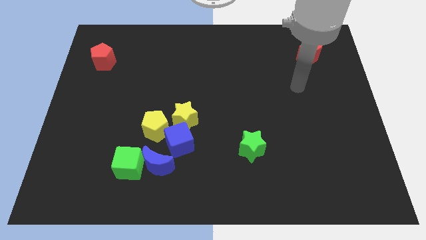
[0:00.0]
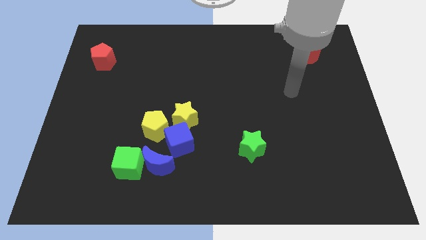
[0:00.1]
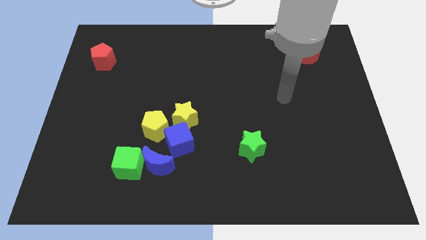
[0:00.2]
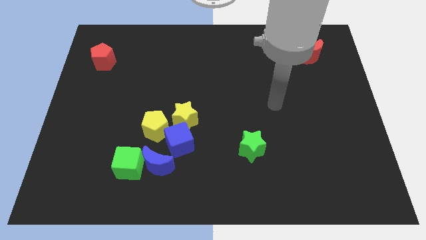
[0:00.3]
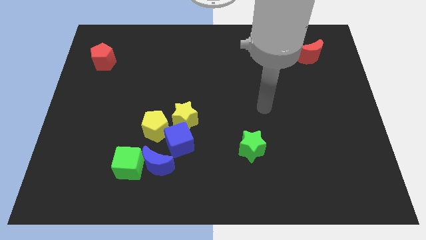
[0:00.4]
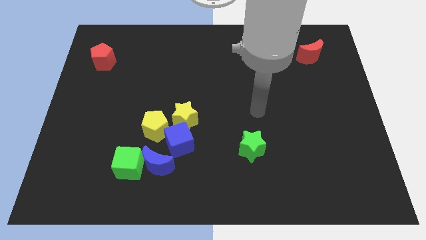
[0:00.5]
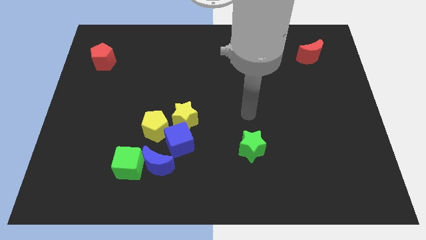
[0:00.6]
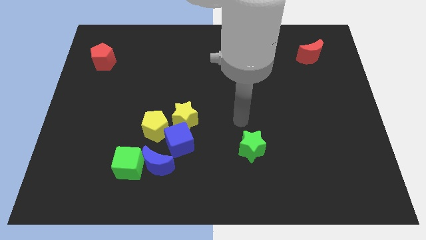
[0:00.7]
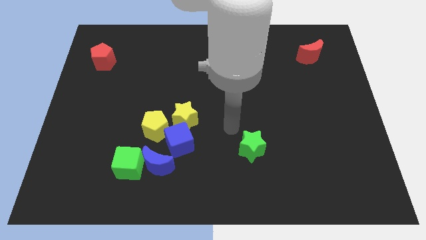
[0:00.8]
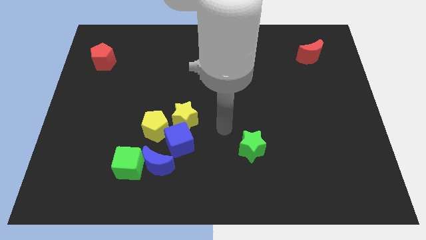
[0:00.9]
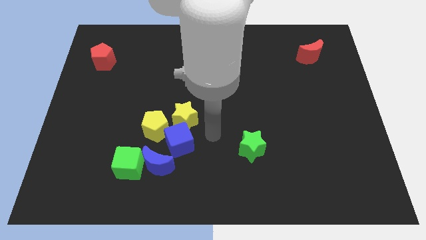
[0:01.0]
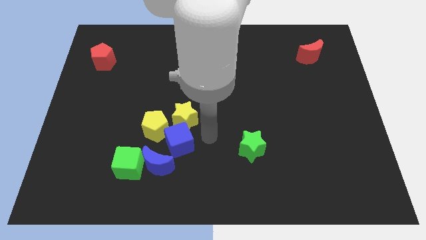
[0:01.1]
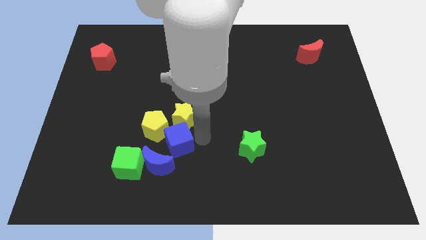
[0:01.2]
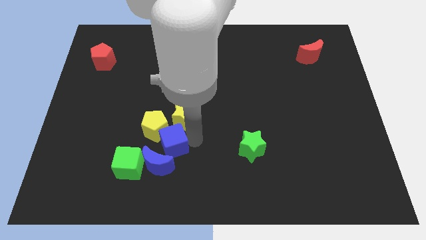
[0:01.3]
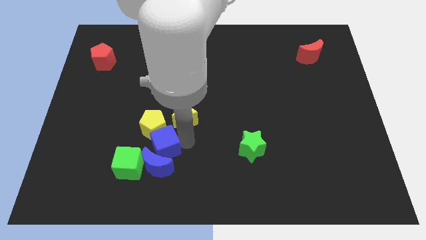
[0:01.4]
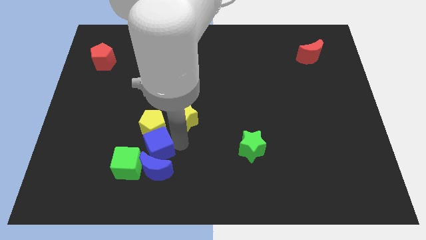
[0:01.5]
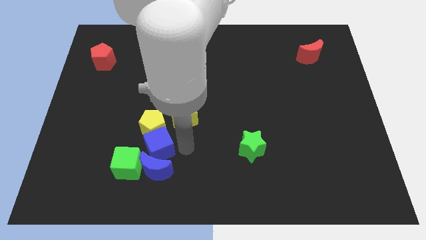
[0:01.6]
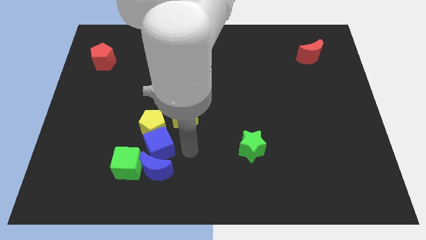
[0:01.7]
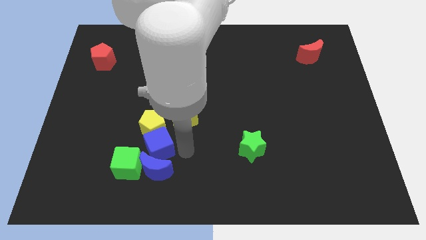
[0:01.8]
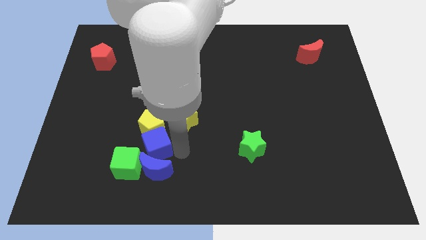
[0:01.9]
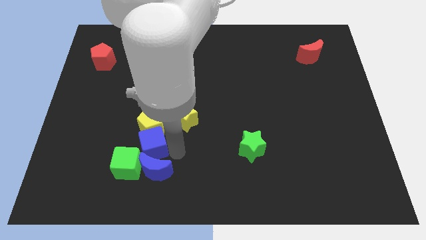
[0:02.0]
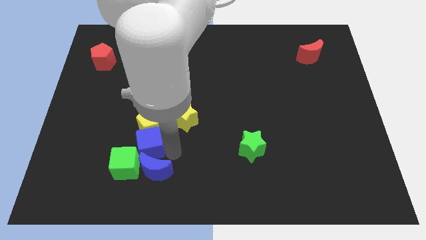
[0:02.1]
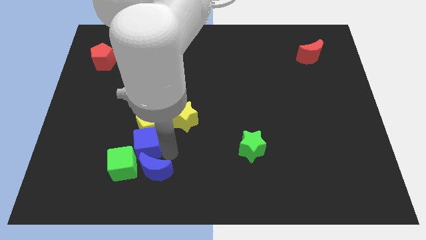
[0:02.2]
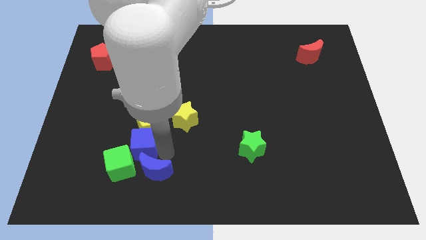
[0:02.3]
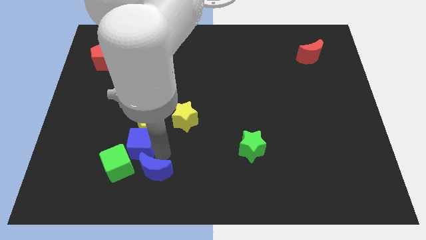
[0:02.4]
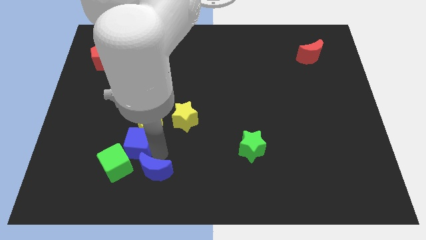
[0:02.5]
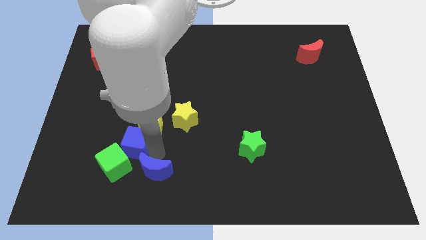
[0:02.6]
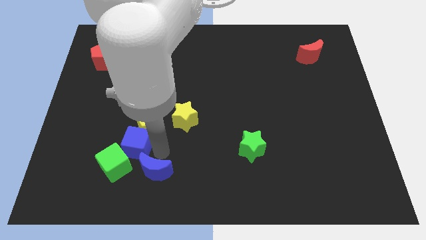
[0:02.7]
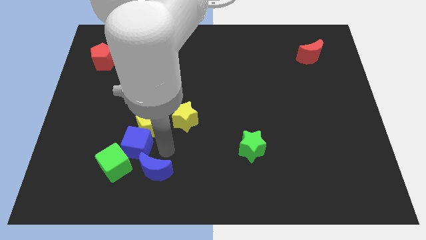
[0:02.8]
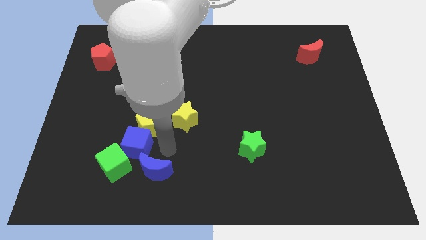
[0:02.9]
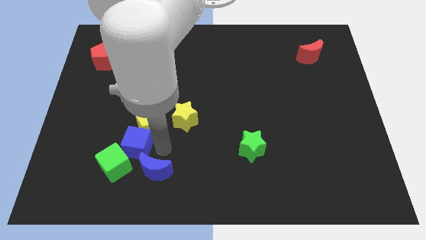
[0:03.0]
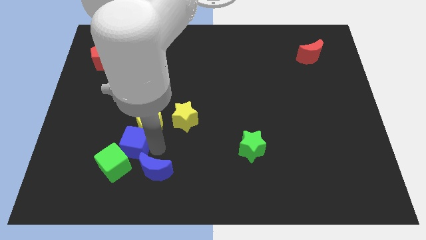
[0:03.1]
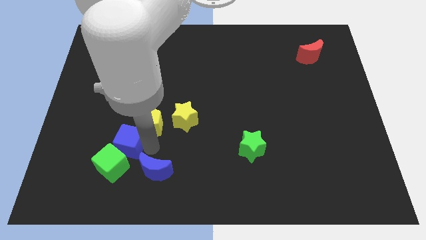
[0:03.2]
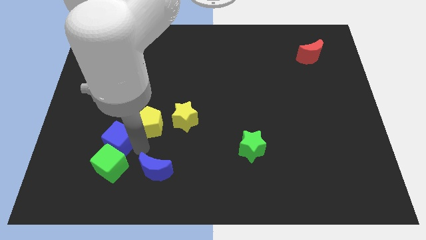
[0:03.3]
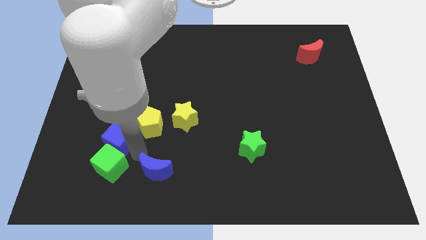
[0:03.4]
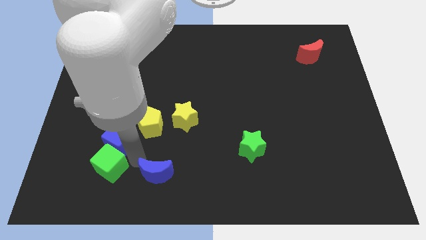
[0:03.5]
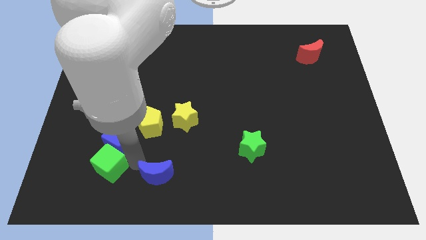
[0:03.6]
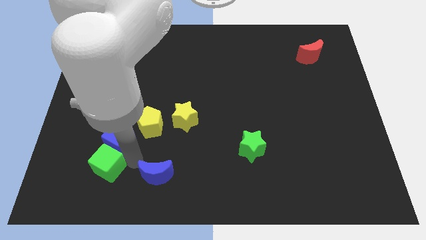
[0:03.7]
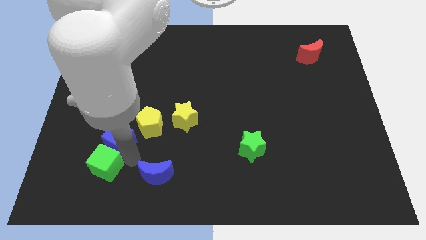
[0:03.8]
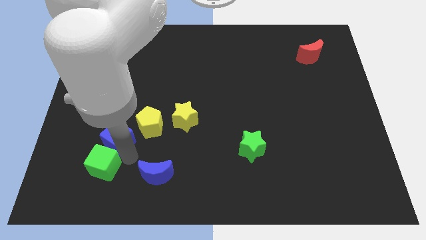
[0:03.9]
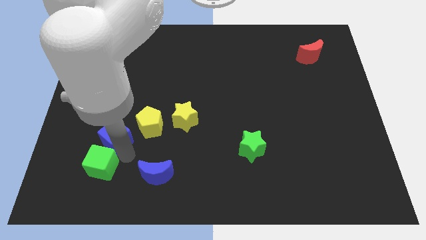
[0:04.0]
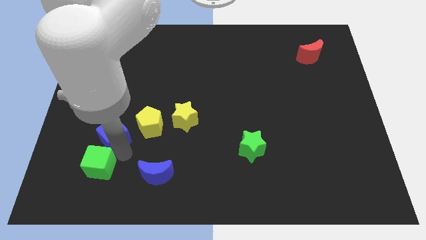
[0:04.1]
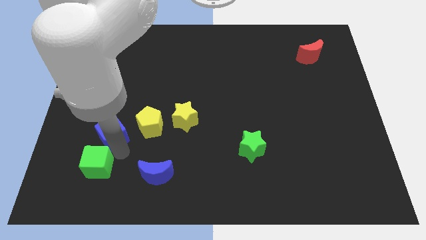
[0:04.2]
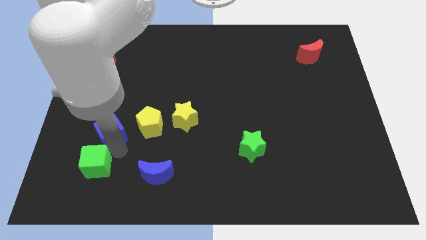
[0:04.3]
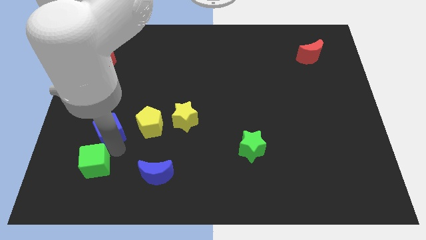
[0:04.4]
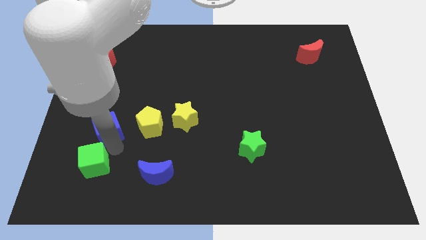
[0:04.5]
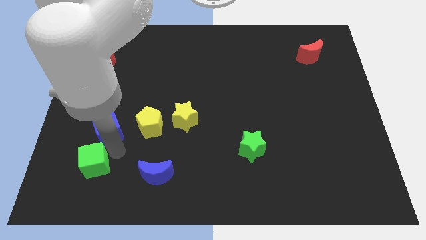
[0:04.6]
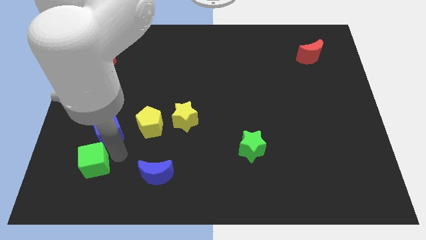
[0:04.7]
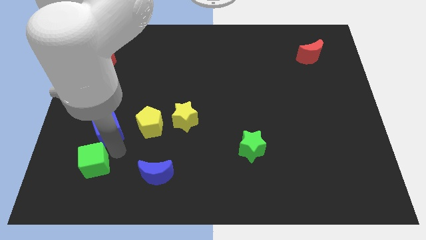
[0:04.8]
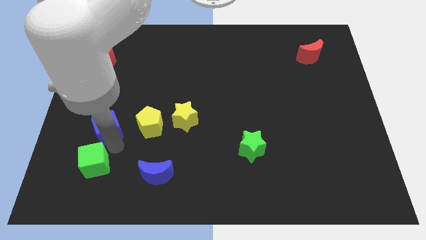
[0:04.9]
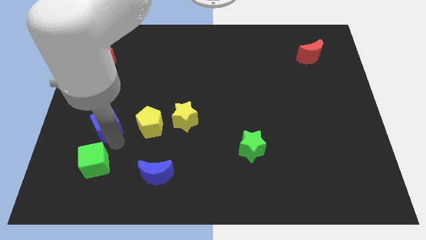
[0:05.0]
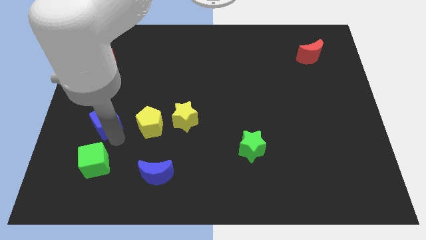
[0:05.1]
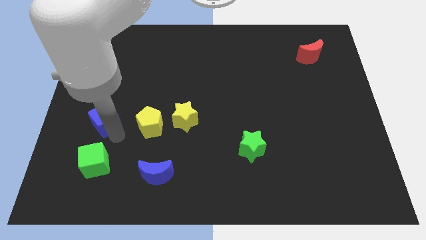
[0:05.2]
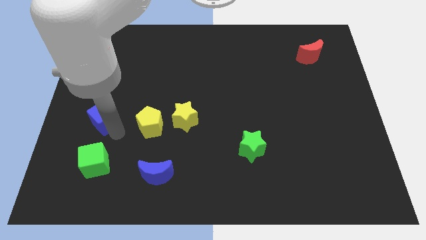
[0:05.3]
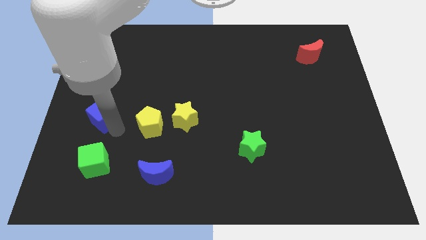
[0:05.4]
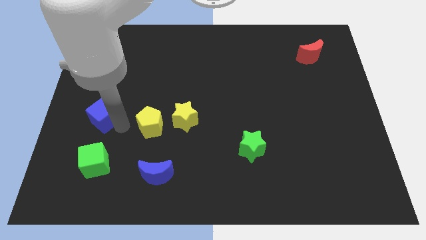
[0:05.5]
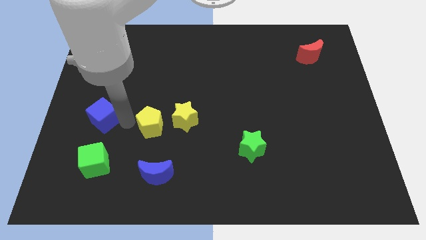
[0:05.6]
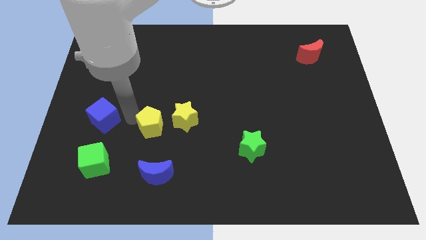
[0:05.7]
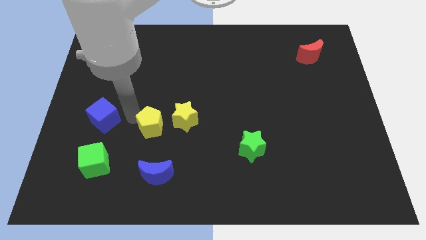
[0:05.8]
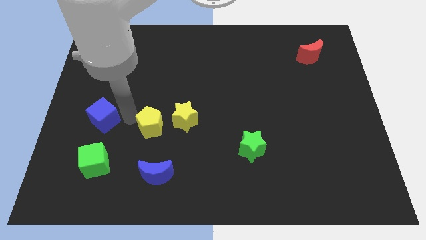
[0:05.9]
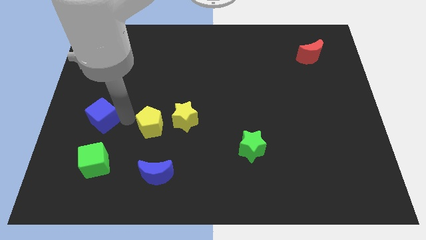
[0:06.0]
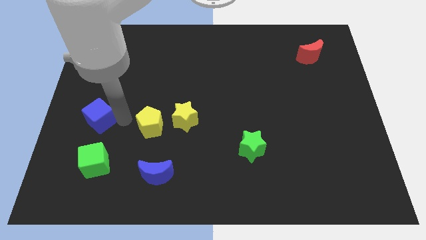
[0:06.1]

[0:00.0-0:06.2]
put the blue cube to the center left

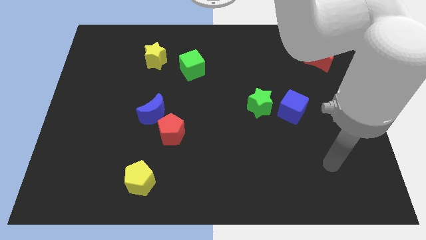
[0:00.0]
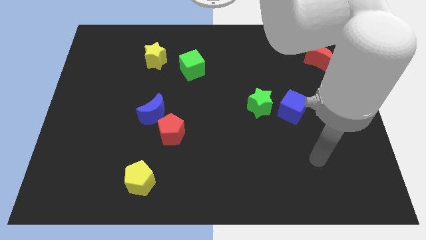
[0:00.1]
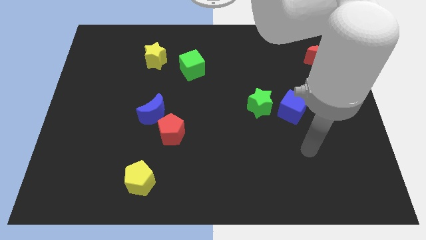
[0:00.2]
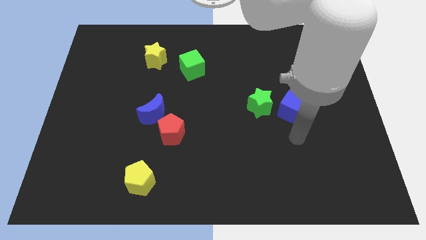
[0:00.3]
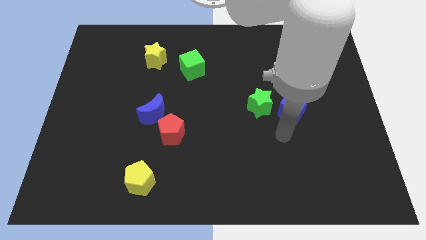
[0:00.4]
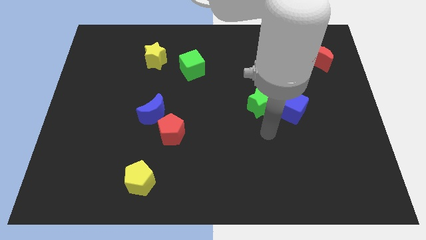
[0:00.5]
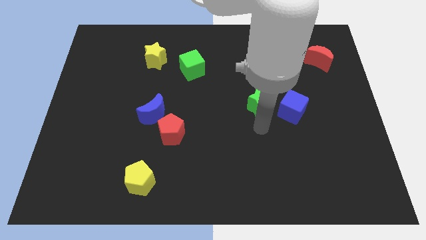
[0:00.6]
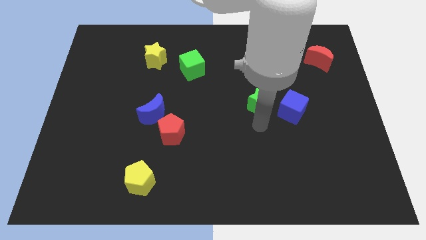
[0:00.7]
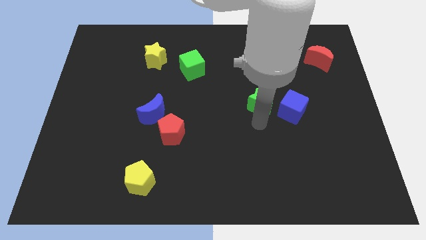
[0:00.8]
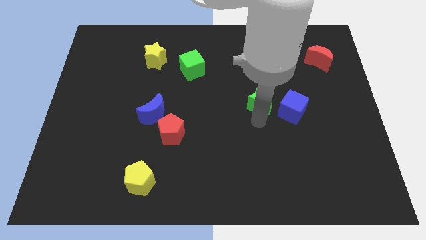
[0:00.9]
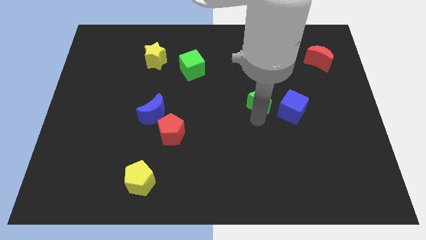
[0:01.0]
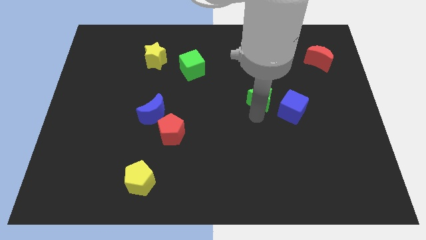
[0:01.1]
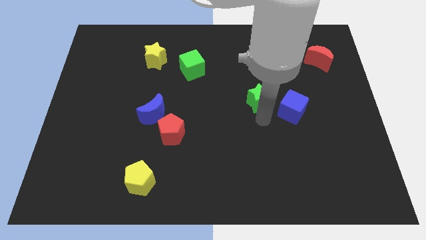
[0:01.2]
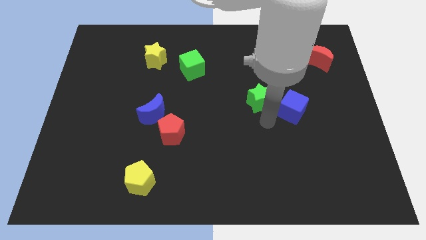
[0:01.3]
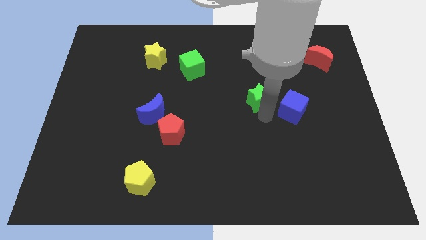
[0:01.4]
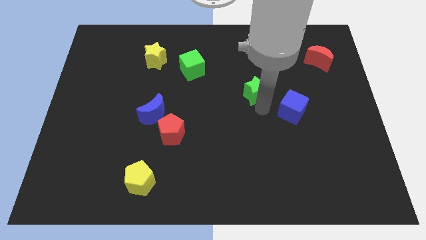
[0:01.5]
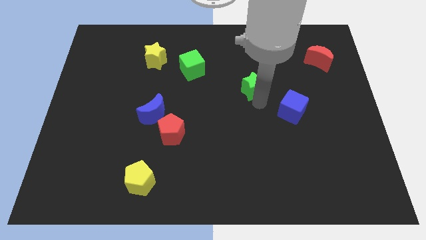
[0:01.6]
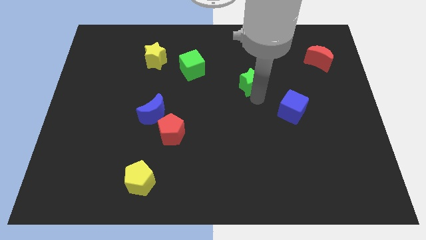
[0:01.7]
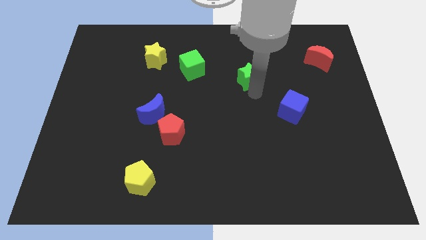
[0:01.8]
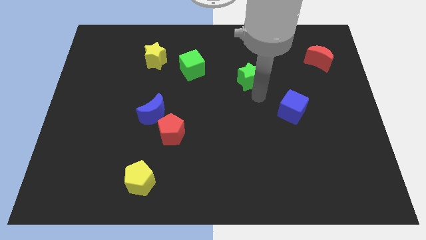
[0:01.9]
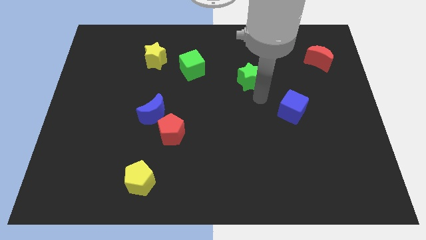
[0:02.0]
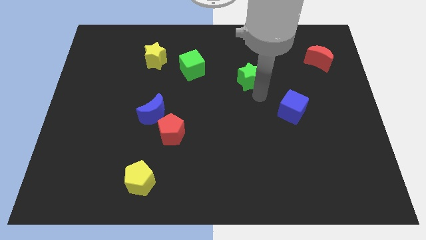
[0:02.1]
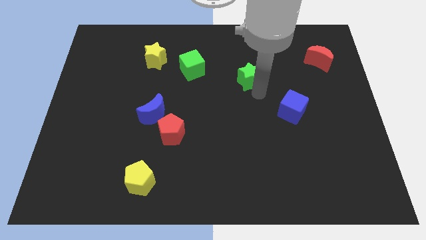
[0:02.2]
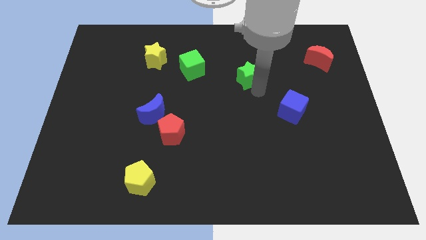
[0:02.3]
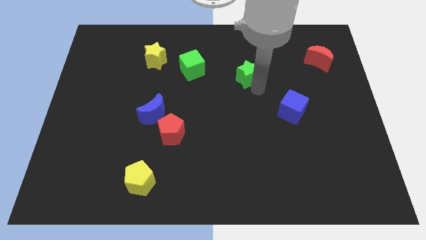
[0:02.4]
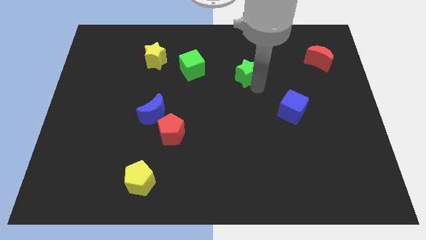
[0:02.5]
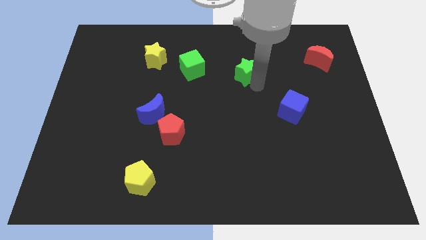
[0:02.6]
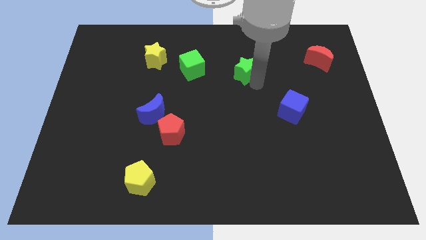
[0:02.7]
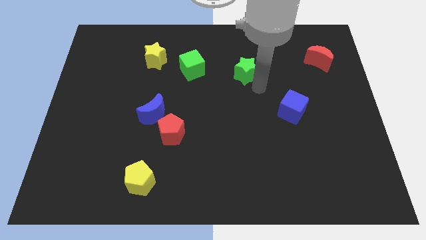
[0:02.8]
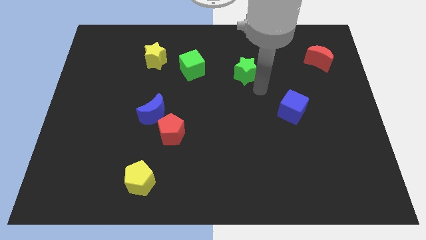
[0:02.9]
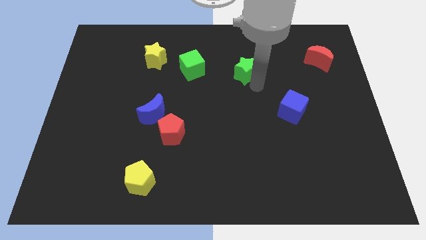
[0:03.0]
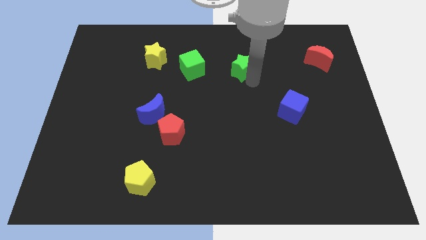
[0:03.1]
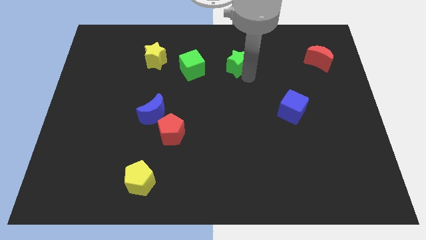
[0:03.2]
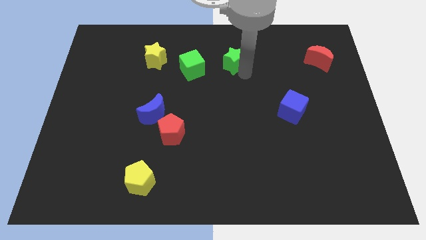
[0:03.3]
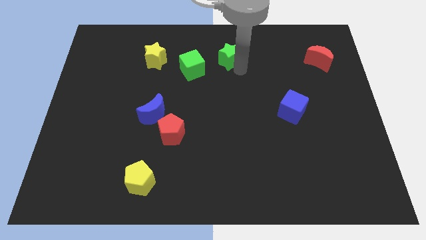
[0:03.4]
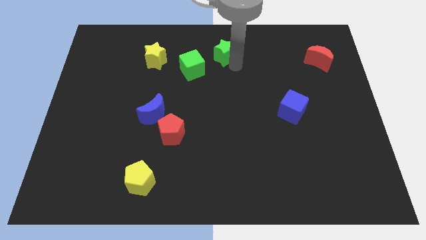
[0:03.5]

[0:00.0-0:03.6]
slide the green star to the towards your base
